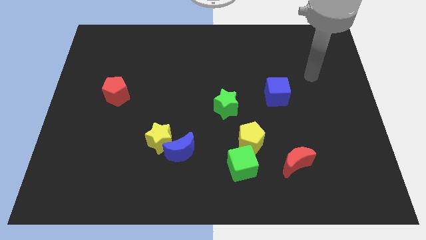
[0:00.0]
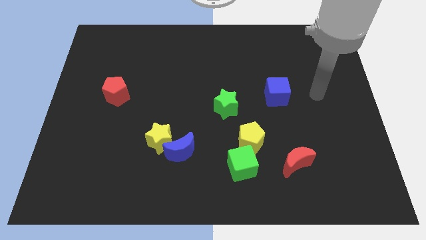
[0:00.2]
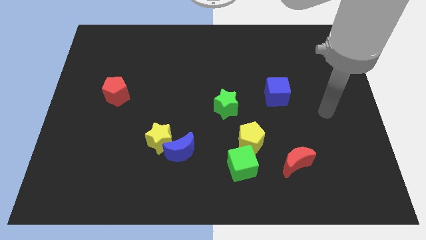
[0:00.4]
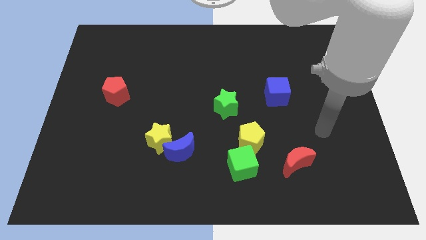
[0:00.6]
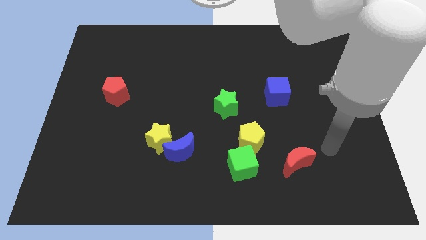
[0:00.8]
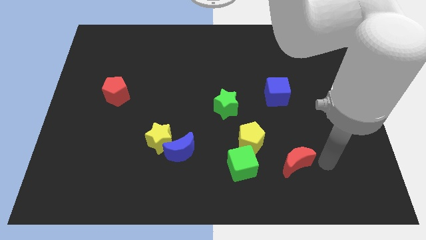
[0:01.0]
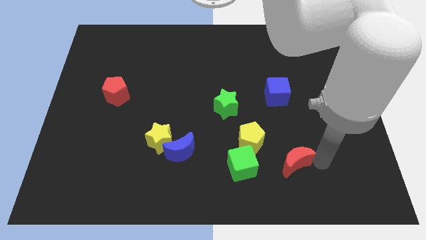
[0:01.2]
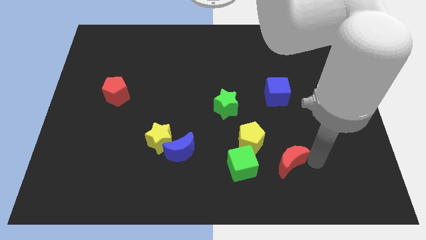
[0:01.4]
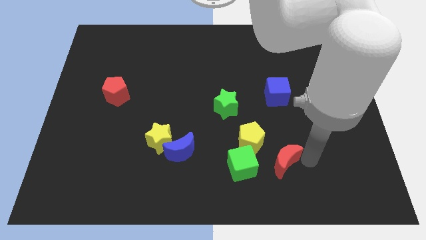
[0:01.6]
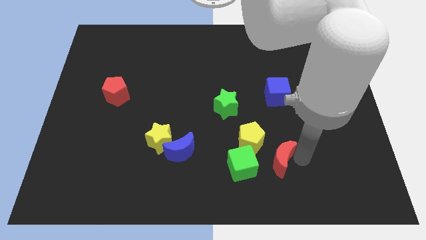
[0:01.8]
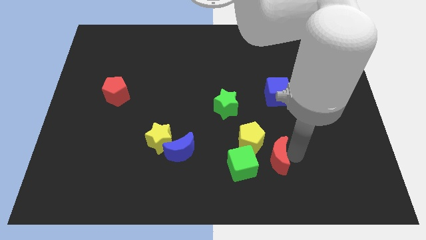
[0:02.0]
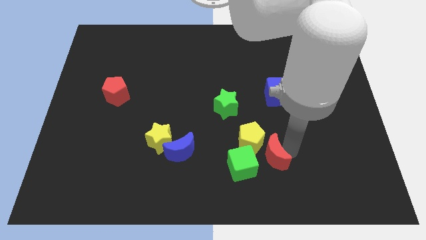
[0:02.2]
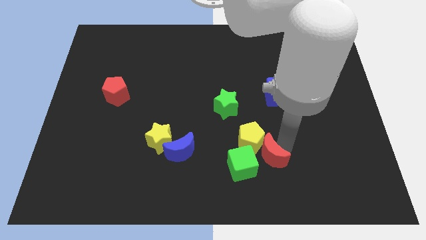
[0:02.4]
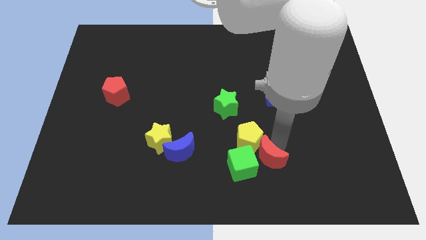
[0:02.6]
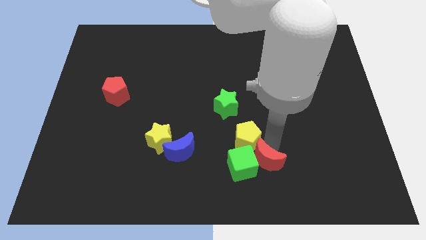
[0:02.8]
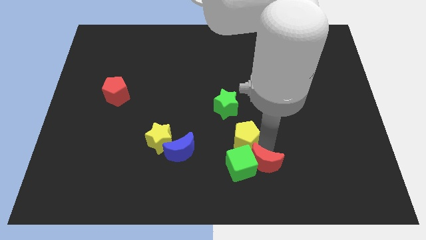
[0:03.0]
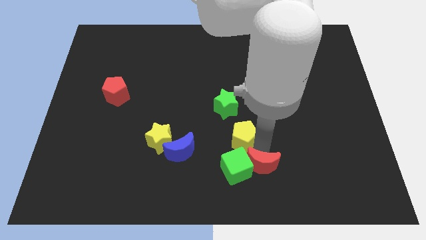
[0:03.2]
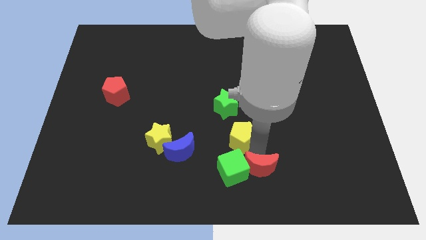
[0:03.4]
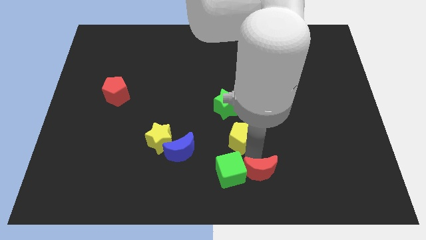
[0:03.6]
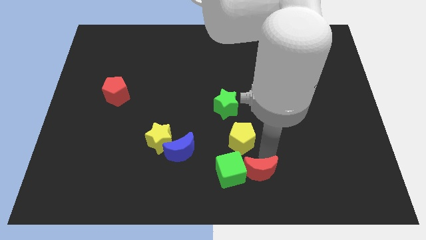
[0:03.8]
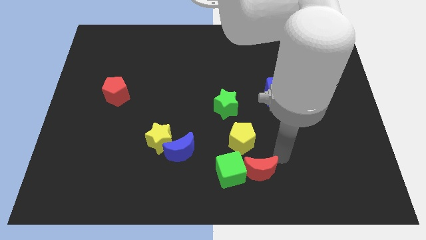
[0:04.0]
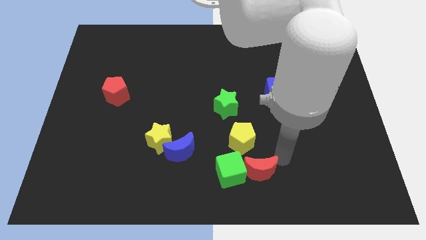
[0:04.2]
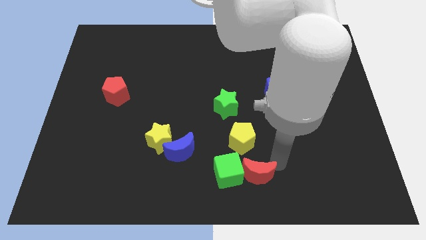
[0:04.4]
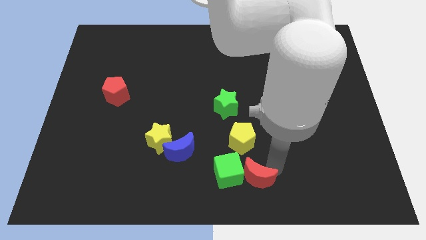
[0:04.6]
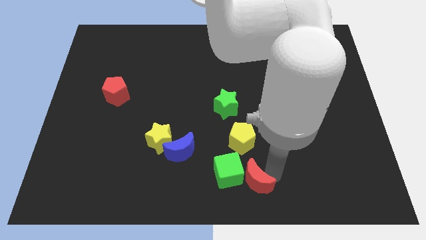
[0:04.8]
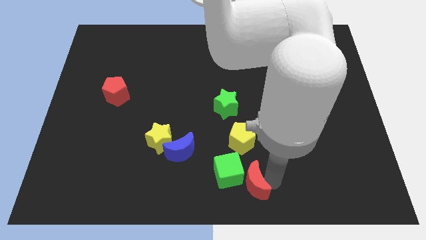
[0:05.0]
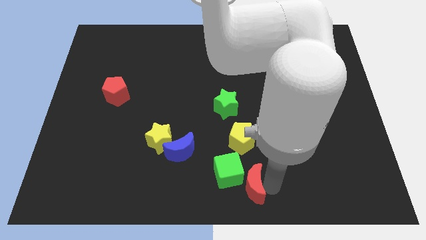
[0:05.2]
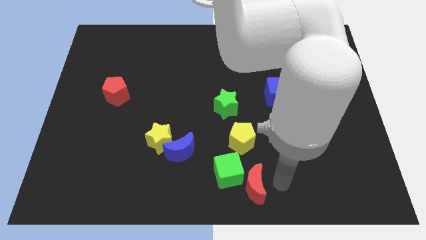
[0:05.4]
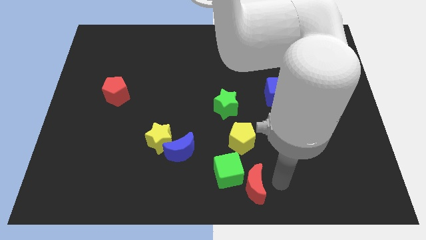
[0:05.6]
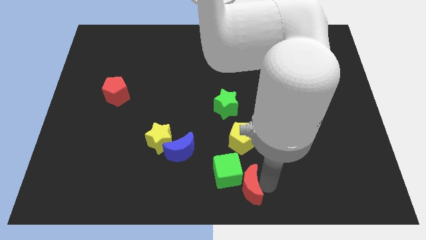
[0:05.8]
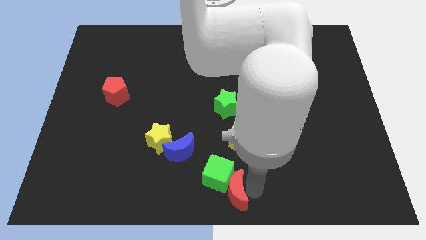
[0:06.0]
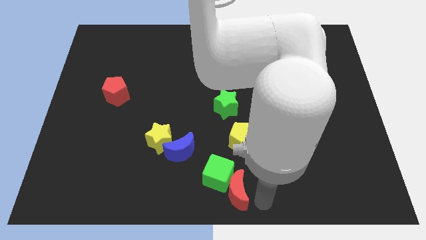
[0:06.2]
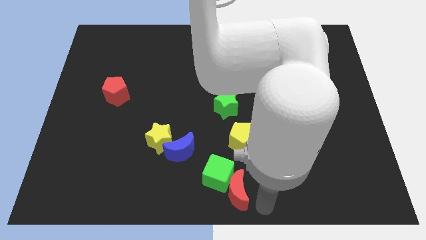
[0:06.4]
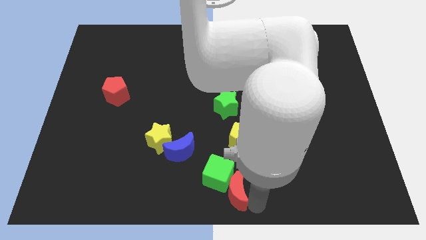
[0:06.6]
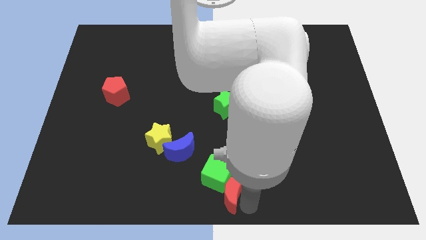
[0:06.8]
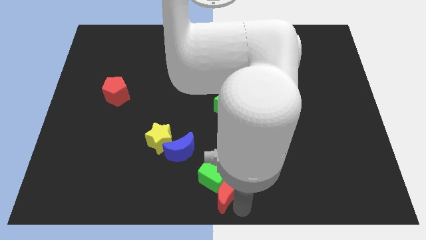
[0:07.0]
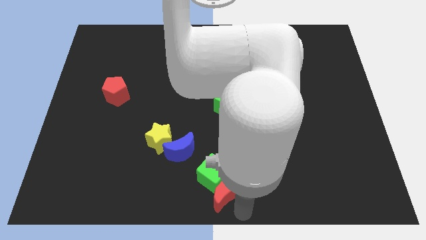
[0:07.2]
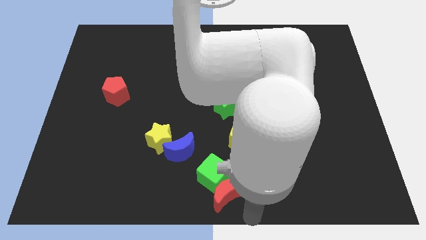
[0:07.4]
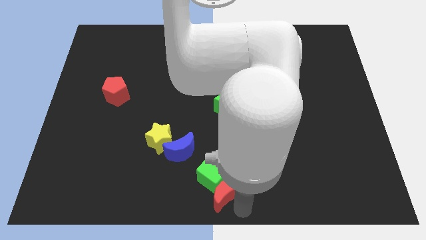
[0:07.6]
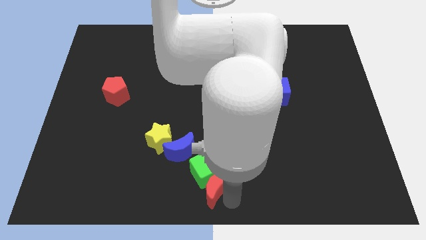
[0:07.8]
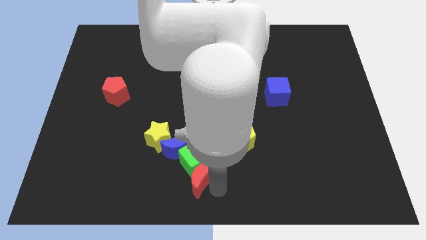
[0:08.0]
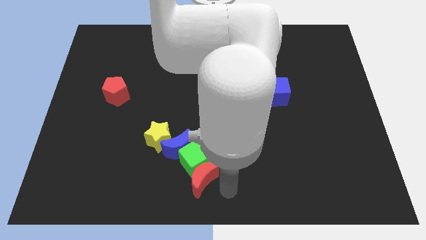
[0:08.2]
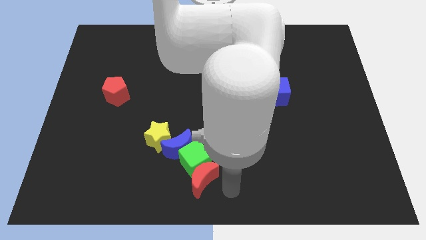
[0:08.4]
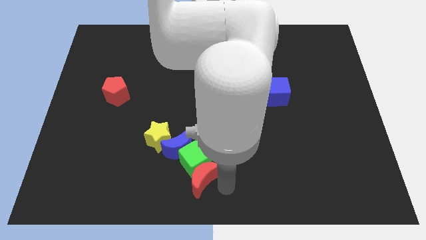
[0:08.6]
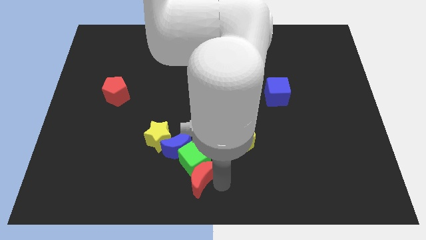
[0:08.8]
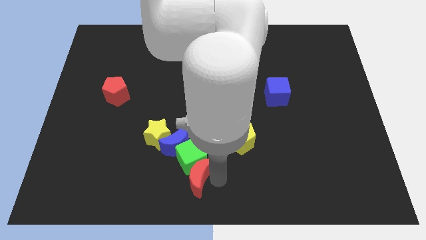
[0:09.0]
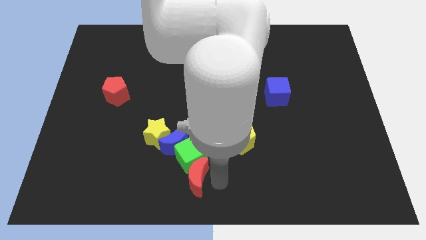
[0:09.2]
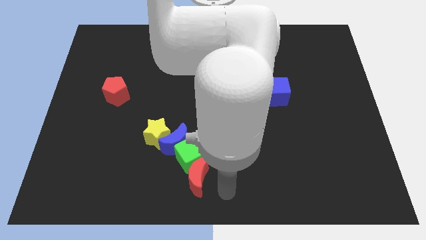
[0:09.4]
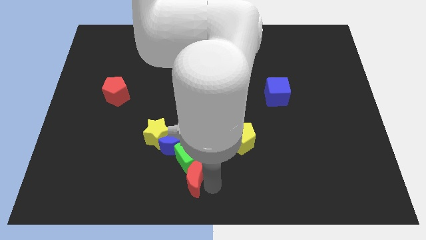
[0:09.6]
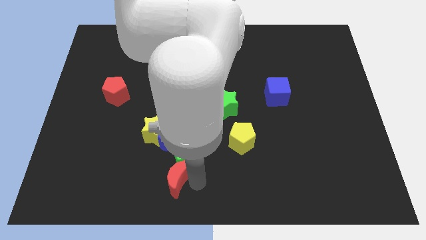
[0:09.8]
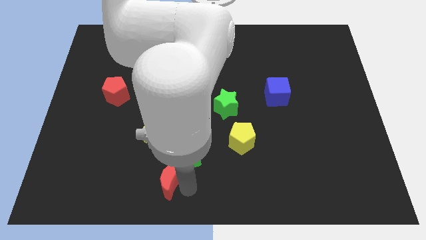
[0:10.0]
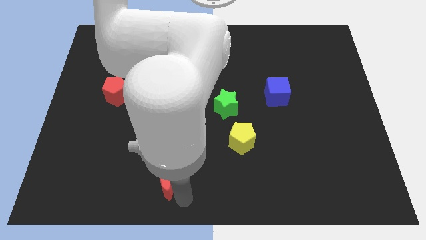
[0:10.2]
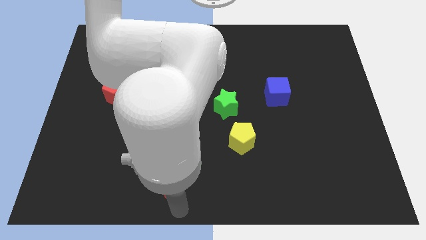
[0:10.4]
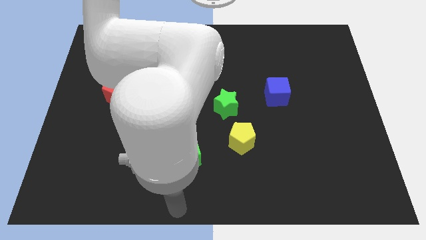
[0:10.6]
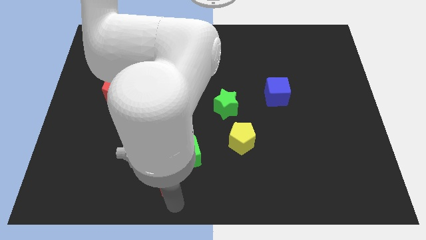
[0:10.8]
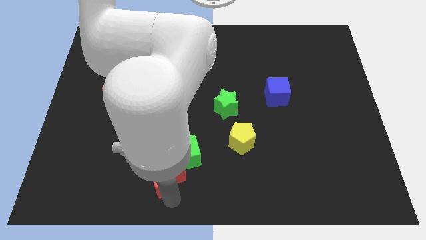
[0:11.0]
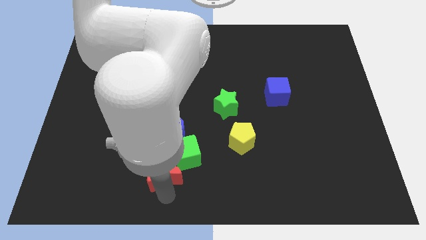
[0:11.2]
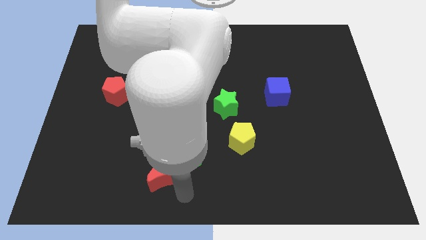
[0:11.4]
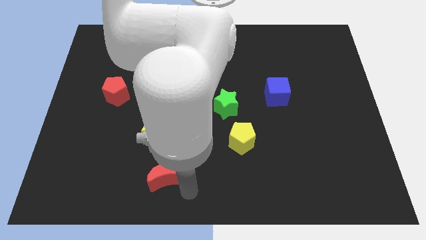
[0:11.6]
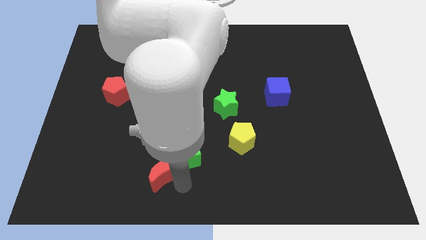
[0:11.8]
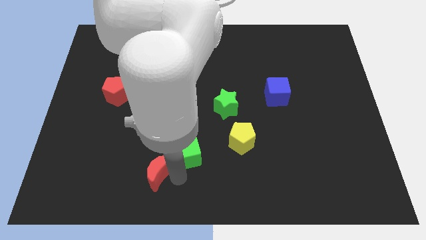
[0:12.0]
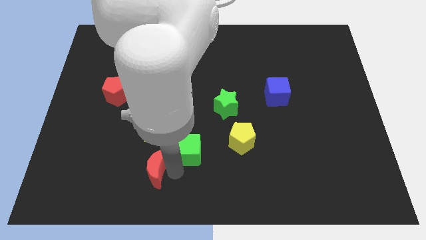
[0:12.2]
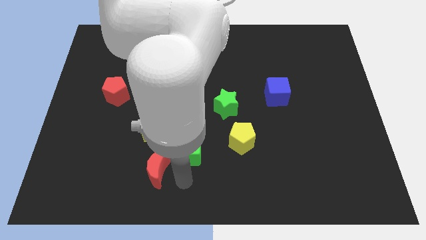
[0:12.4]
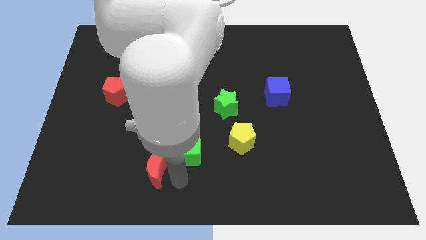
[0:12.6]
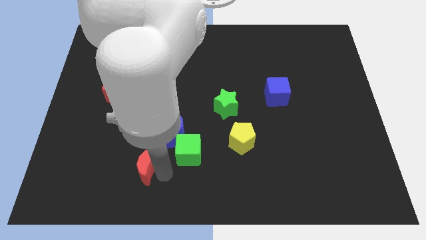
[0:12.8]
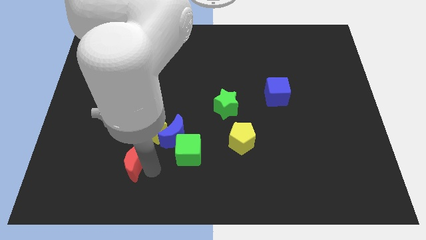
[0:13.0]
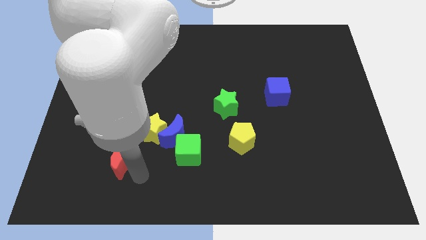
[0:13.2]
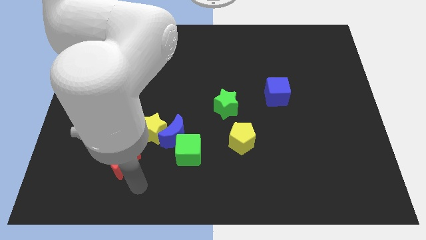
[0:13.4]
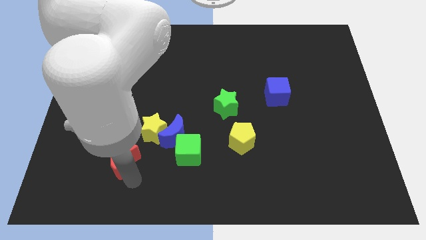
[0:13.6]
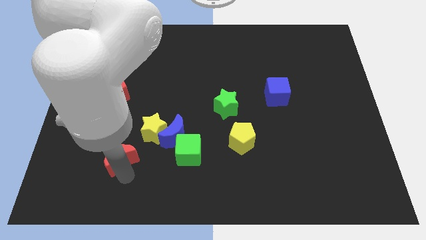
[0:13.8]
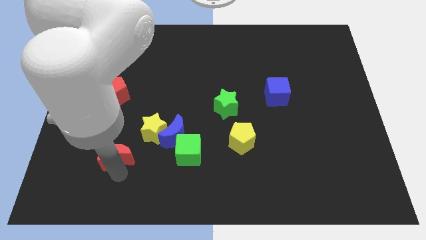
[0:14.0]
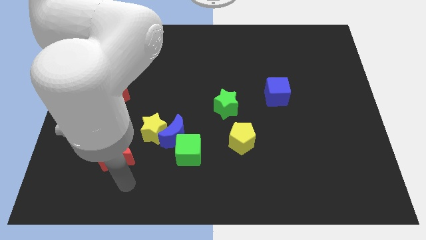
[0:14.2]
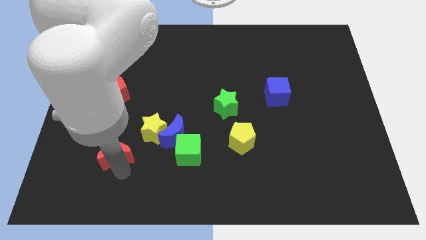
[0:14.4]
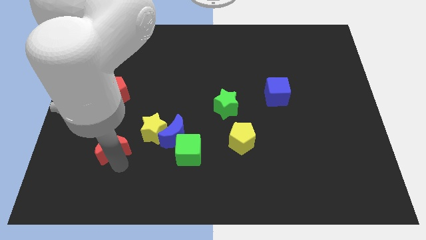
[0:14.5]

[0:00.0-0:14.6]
slide the red moon to the left of the yellow star
